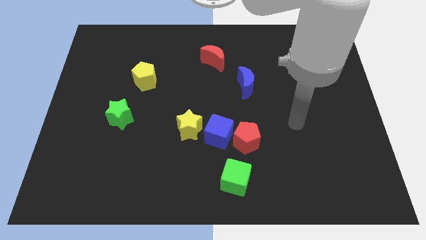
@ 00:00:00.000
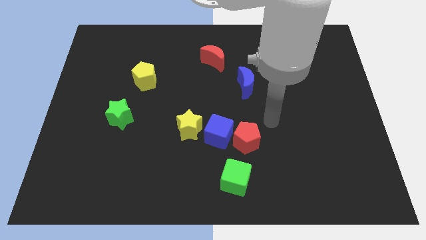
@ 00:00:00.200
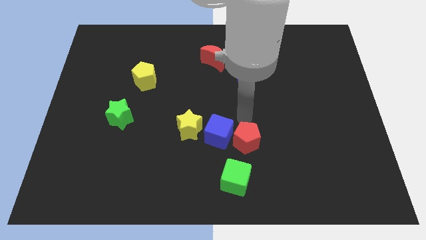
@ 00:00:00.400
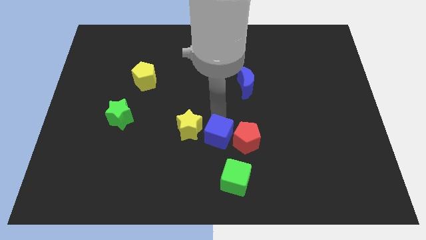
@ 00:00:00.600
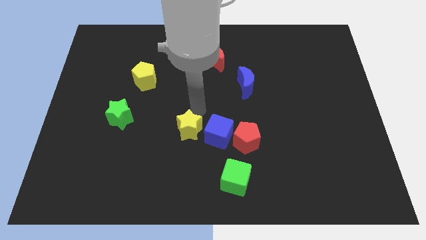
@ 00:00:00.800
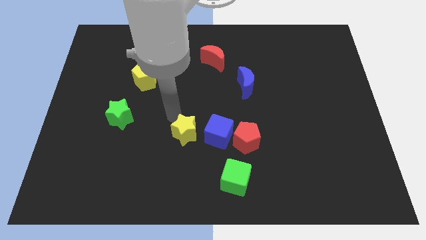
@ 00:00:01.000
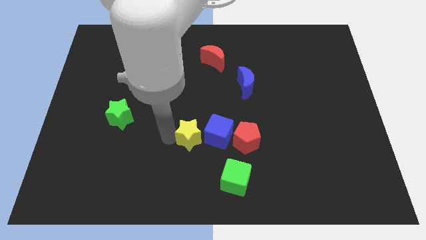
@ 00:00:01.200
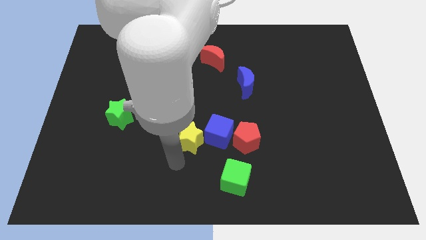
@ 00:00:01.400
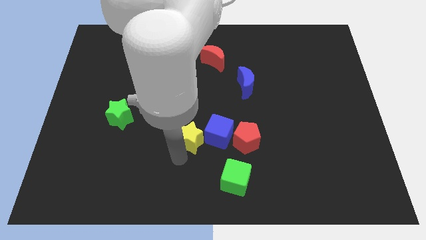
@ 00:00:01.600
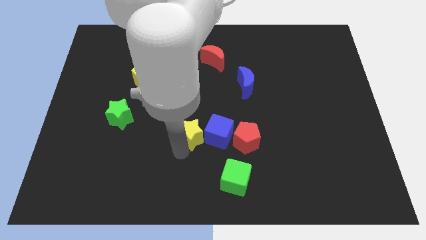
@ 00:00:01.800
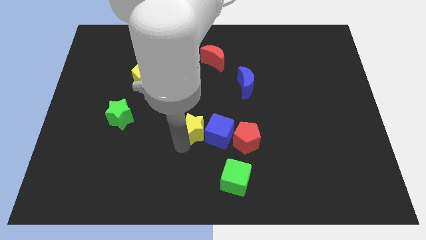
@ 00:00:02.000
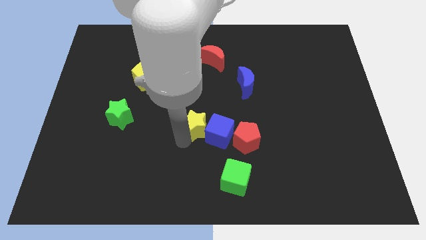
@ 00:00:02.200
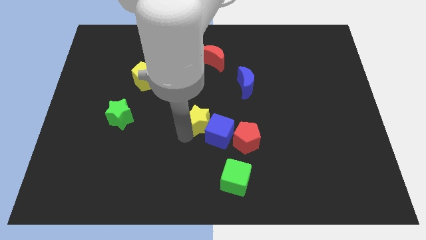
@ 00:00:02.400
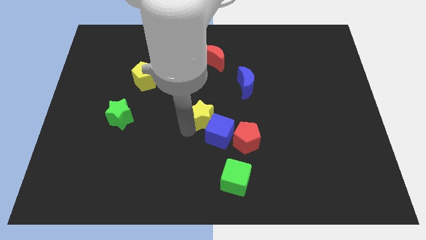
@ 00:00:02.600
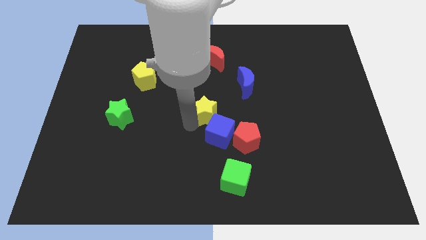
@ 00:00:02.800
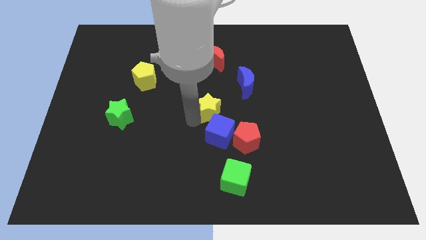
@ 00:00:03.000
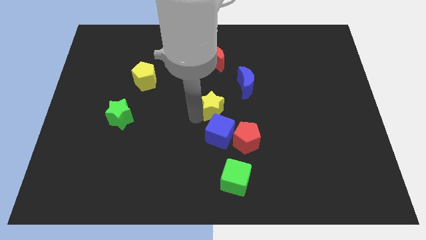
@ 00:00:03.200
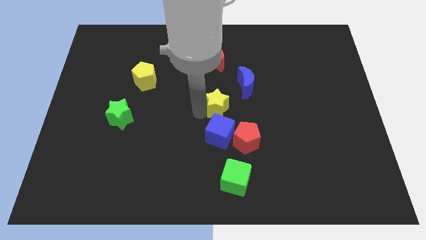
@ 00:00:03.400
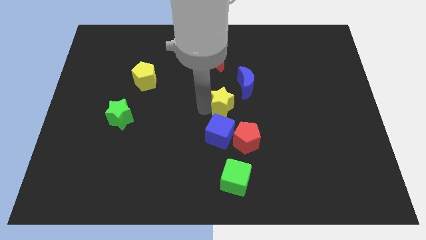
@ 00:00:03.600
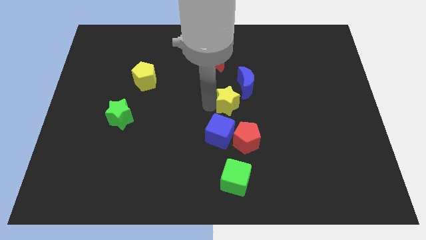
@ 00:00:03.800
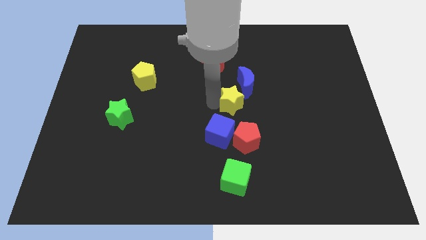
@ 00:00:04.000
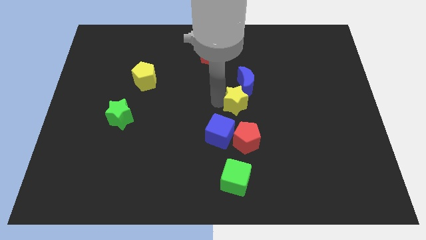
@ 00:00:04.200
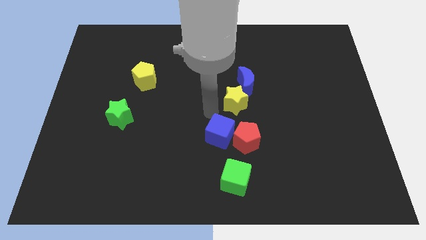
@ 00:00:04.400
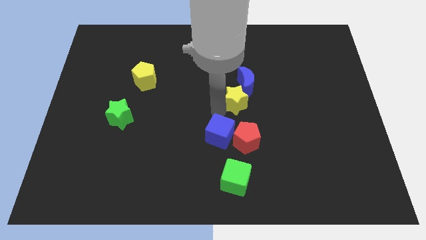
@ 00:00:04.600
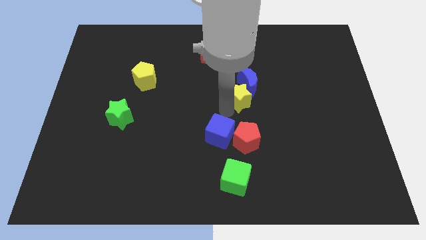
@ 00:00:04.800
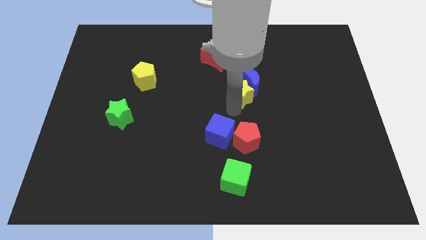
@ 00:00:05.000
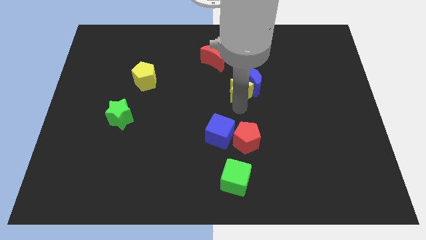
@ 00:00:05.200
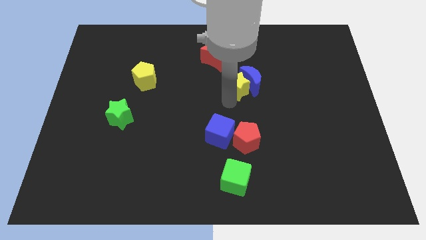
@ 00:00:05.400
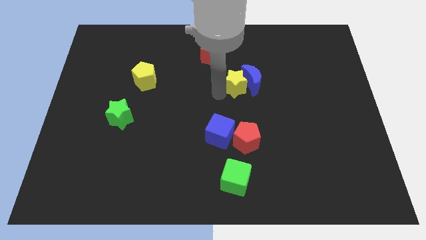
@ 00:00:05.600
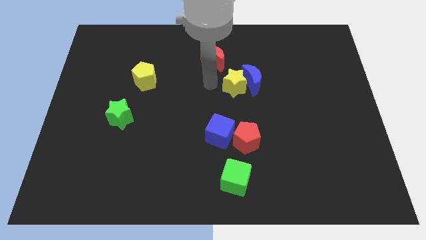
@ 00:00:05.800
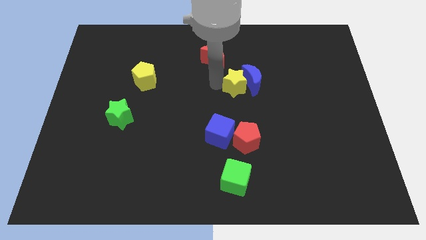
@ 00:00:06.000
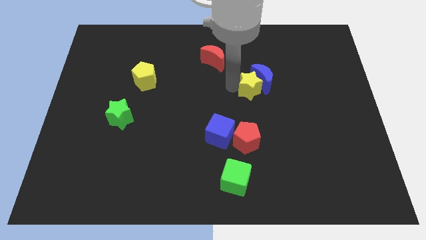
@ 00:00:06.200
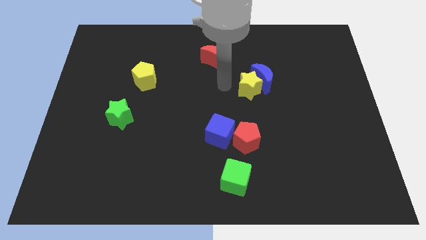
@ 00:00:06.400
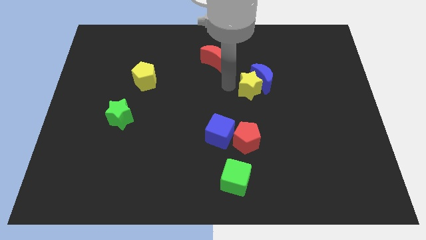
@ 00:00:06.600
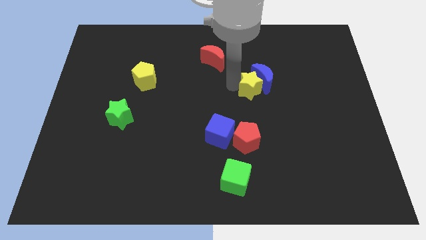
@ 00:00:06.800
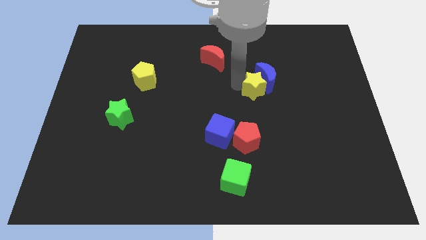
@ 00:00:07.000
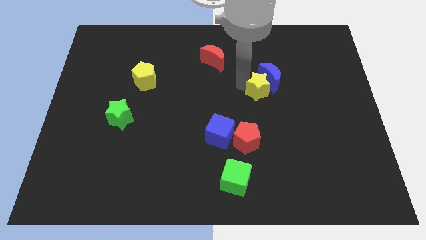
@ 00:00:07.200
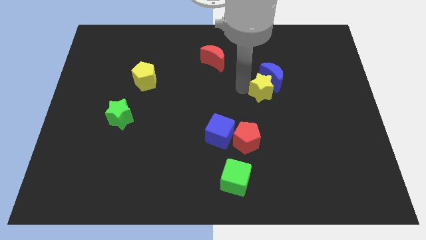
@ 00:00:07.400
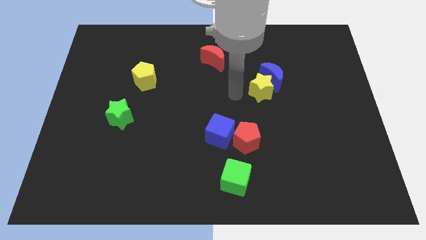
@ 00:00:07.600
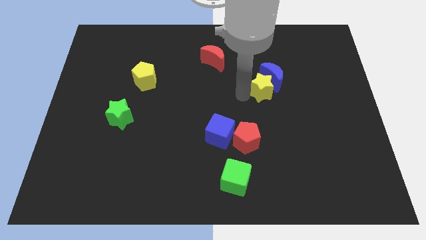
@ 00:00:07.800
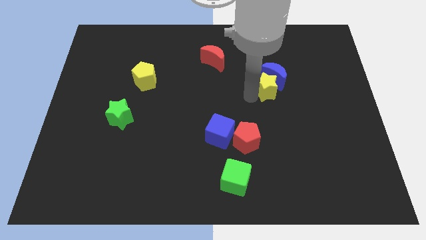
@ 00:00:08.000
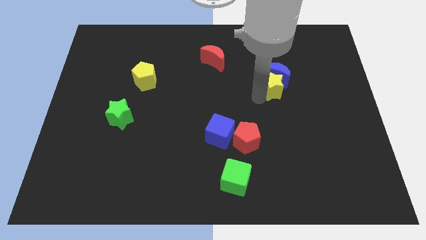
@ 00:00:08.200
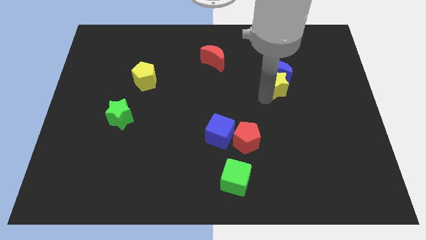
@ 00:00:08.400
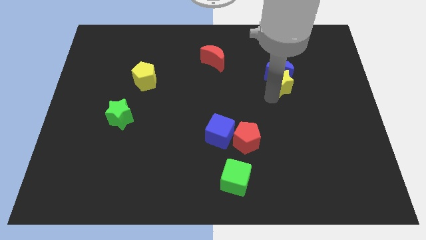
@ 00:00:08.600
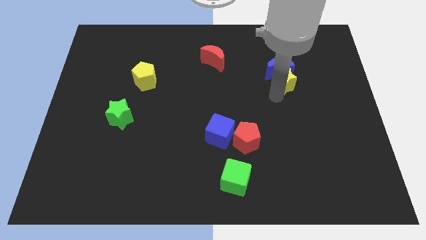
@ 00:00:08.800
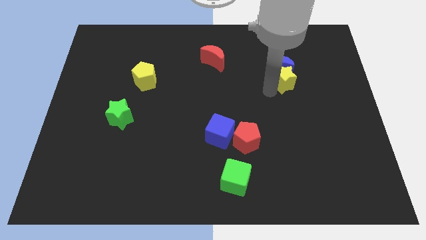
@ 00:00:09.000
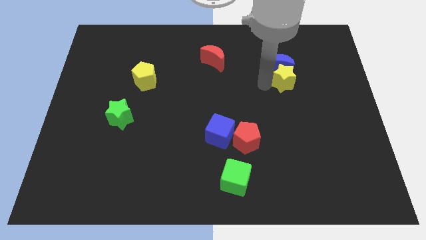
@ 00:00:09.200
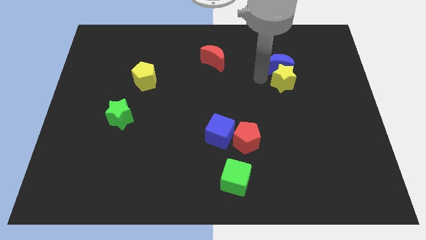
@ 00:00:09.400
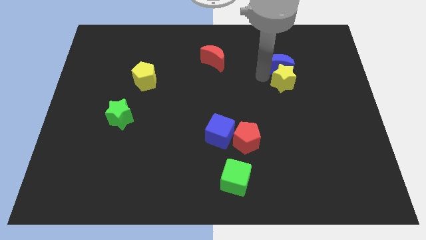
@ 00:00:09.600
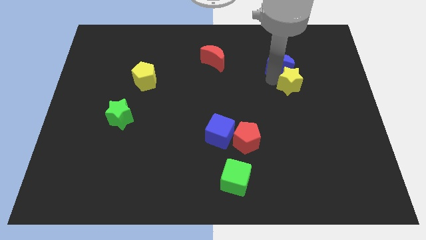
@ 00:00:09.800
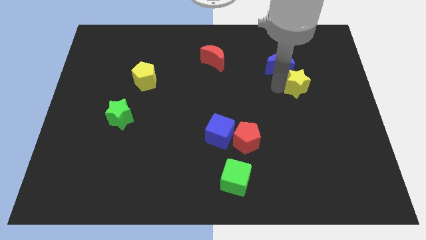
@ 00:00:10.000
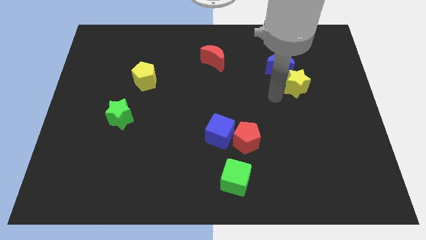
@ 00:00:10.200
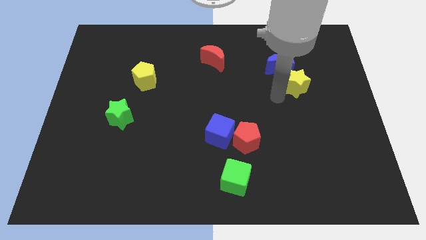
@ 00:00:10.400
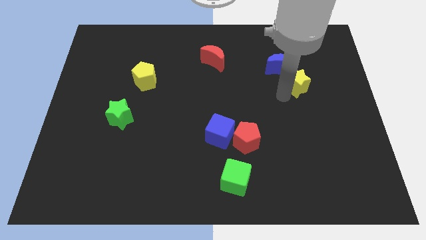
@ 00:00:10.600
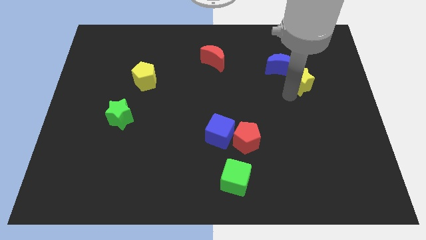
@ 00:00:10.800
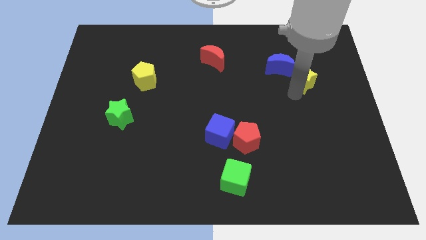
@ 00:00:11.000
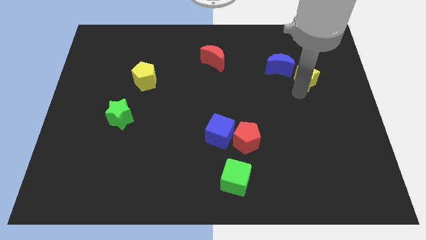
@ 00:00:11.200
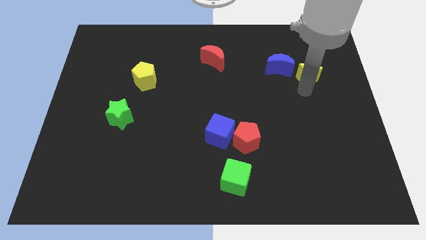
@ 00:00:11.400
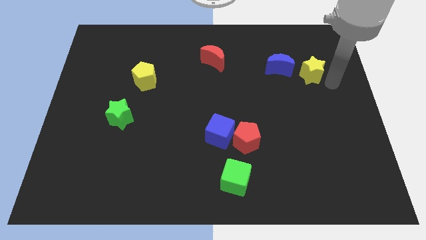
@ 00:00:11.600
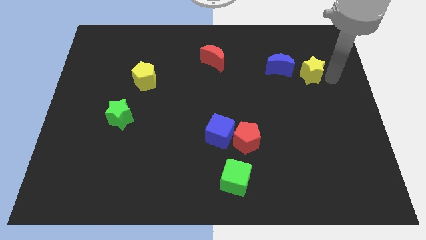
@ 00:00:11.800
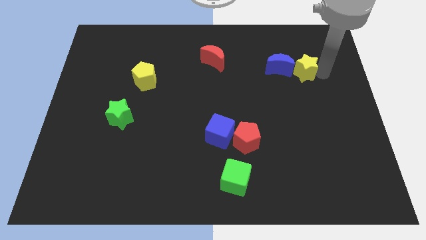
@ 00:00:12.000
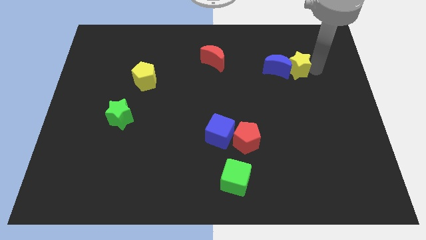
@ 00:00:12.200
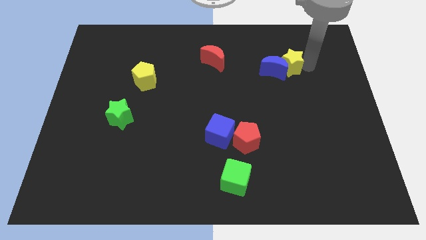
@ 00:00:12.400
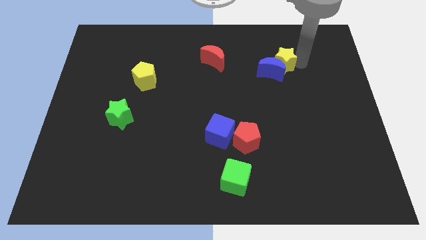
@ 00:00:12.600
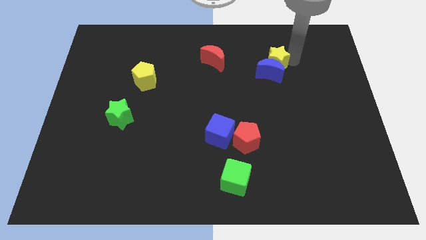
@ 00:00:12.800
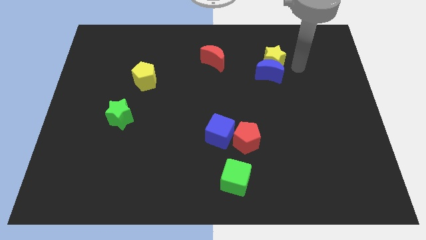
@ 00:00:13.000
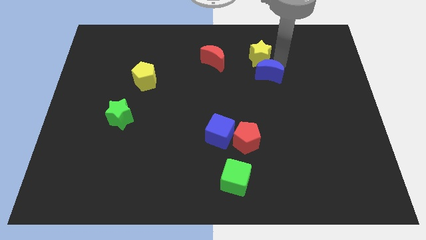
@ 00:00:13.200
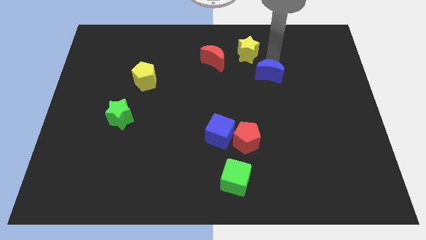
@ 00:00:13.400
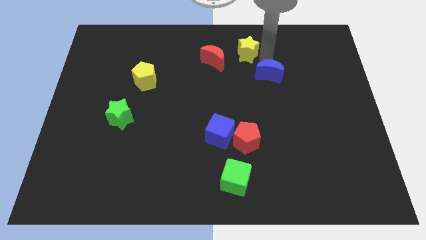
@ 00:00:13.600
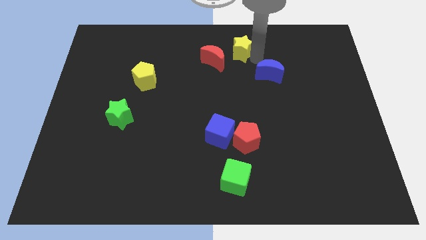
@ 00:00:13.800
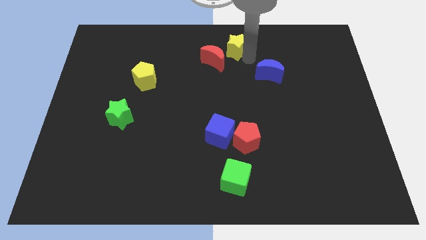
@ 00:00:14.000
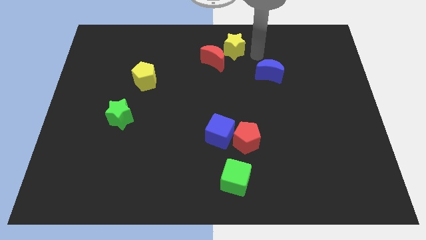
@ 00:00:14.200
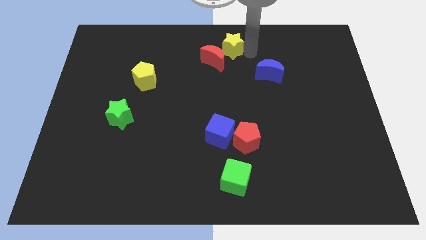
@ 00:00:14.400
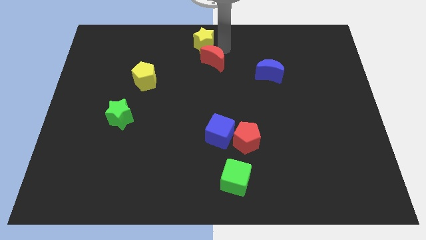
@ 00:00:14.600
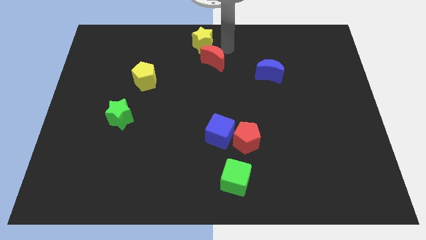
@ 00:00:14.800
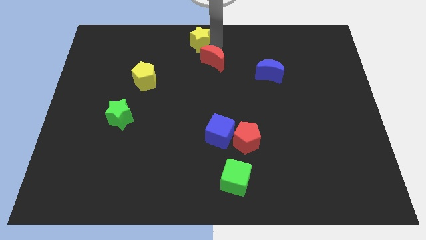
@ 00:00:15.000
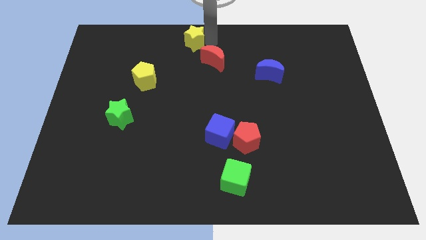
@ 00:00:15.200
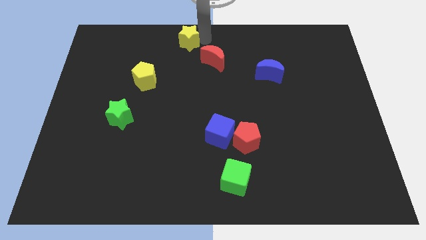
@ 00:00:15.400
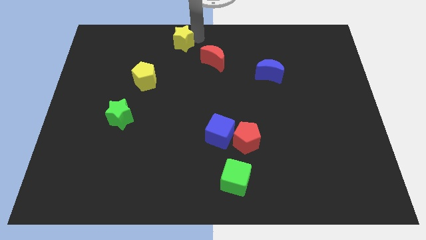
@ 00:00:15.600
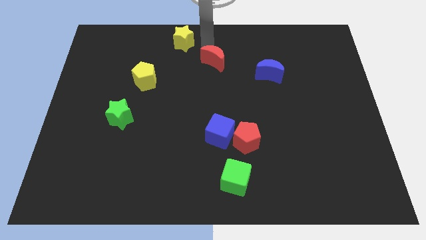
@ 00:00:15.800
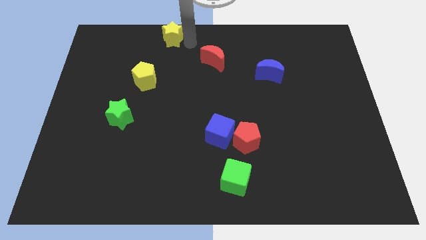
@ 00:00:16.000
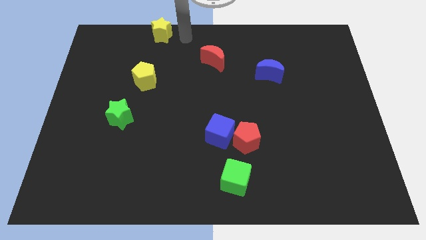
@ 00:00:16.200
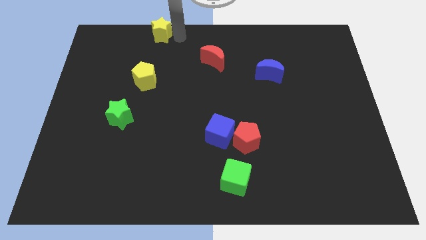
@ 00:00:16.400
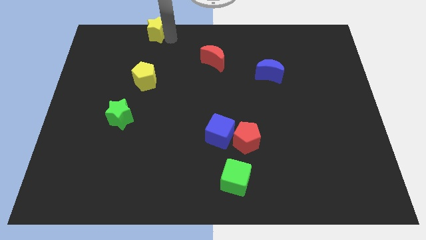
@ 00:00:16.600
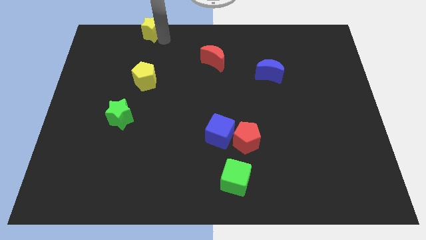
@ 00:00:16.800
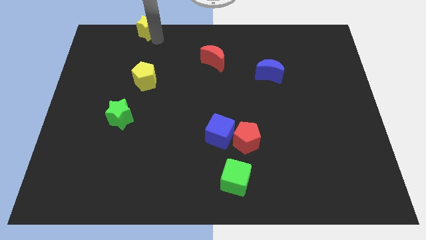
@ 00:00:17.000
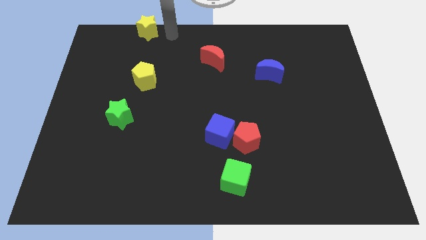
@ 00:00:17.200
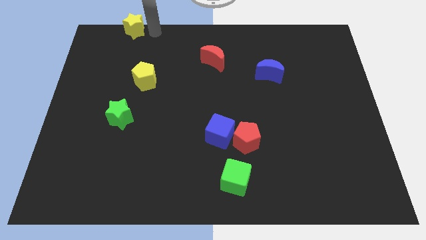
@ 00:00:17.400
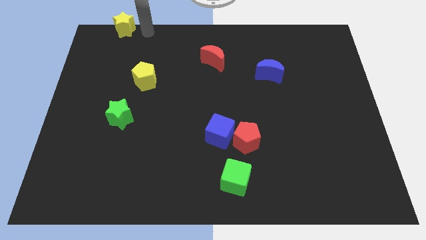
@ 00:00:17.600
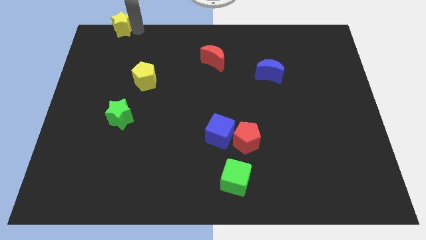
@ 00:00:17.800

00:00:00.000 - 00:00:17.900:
push the yellow star to the upper left corner
